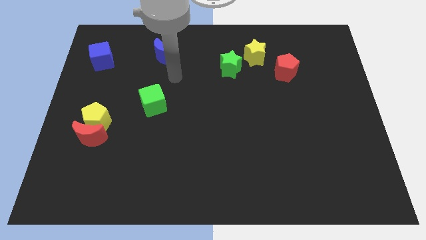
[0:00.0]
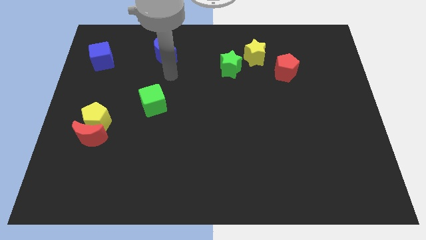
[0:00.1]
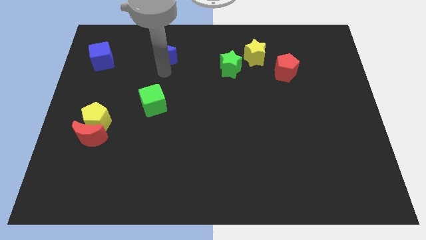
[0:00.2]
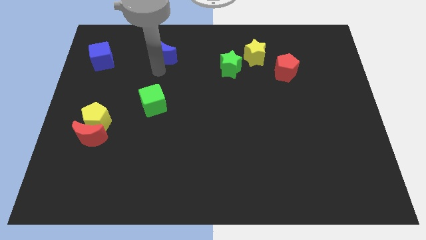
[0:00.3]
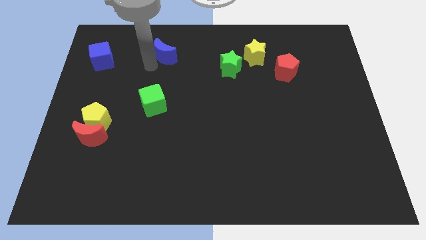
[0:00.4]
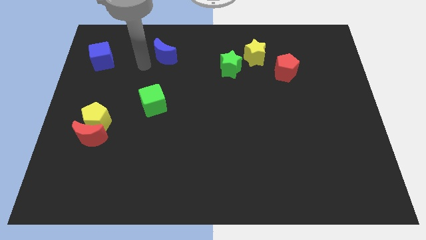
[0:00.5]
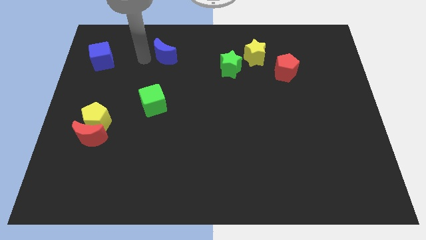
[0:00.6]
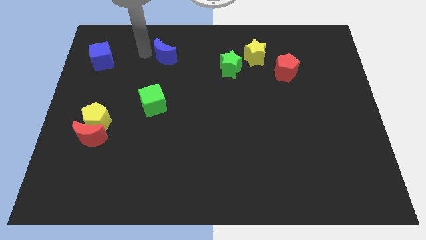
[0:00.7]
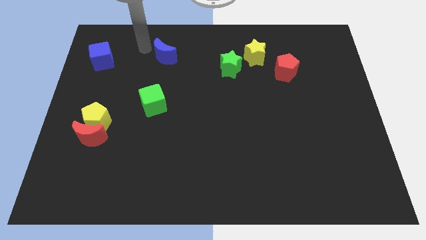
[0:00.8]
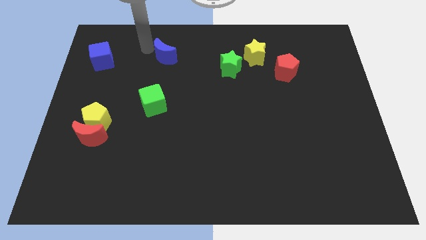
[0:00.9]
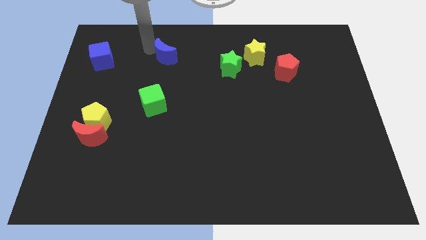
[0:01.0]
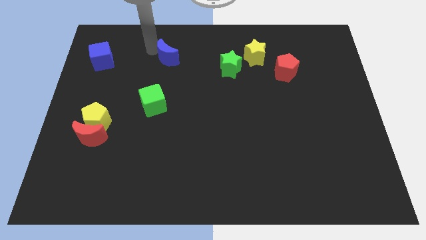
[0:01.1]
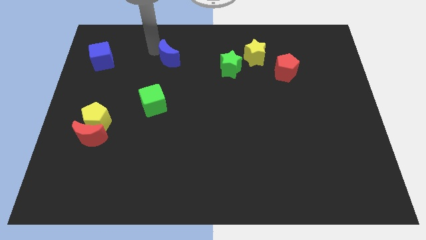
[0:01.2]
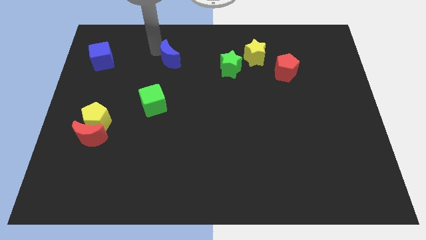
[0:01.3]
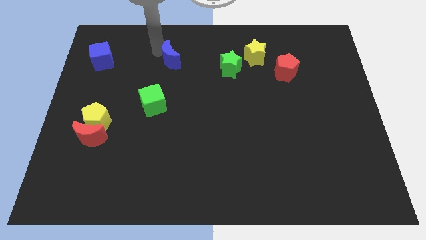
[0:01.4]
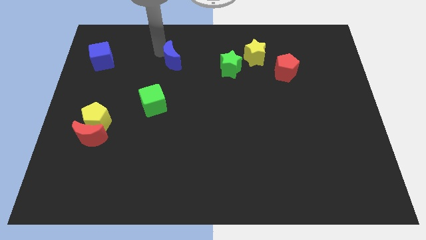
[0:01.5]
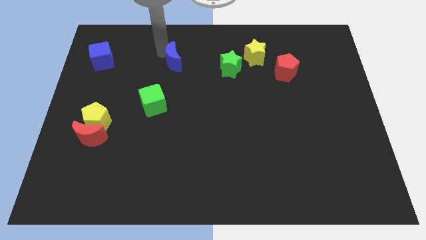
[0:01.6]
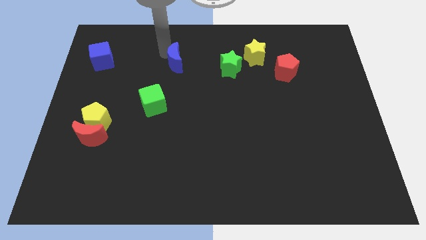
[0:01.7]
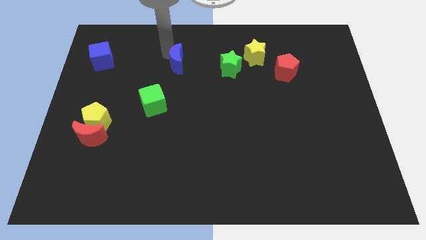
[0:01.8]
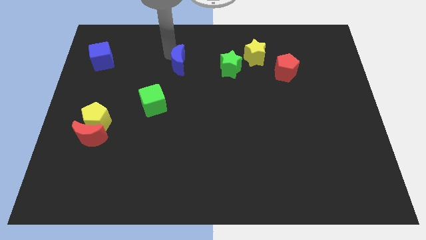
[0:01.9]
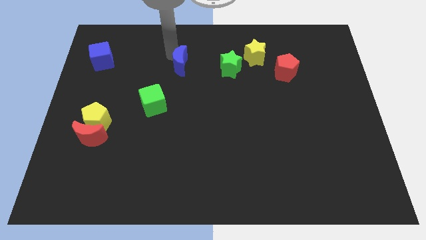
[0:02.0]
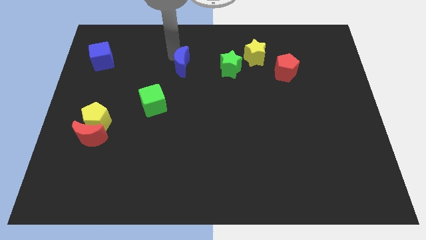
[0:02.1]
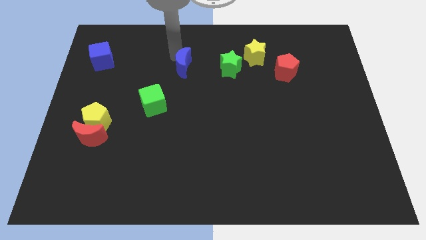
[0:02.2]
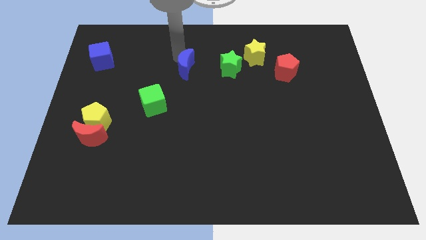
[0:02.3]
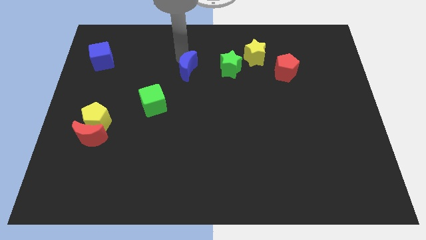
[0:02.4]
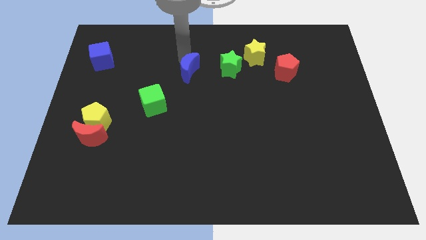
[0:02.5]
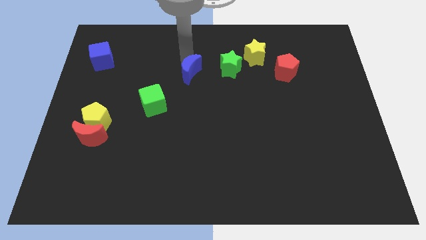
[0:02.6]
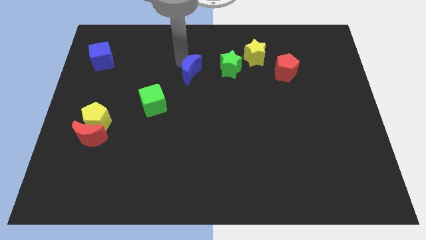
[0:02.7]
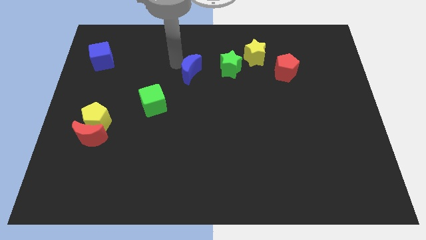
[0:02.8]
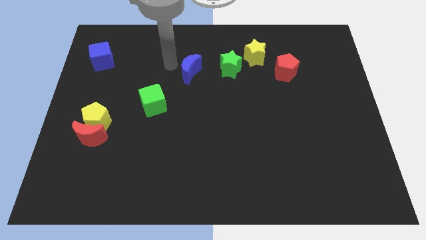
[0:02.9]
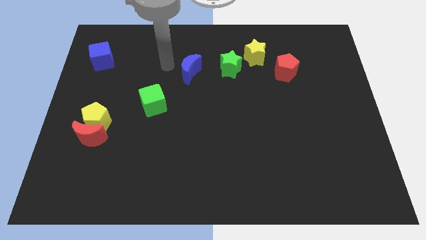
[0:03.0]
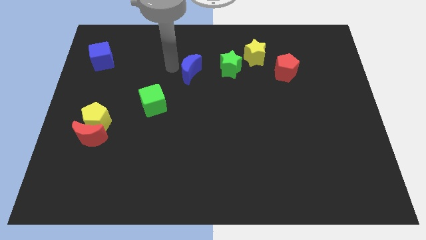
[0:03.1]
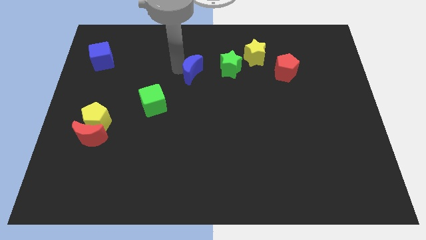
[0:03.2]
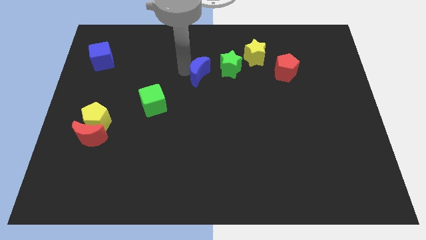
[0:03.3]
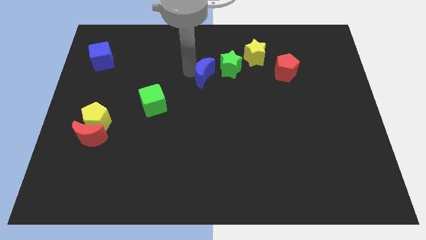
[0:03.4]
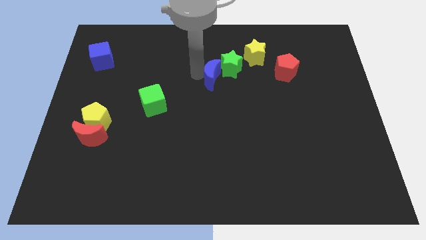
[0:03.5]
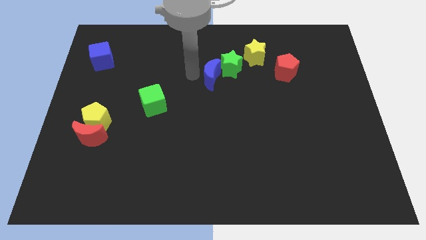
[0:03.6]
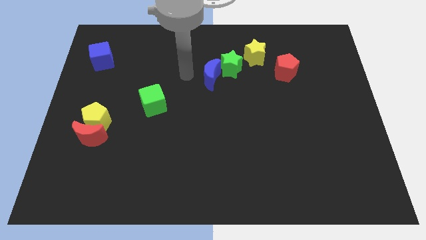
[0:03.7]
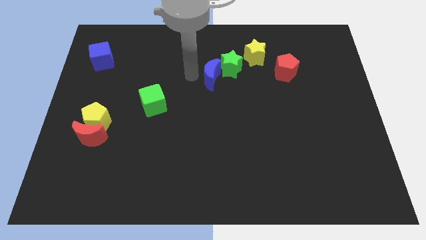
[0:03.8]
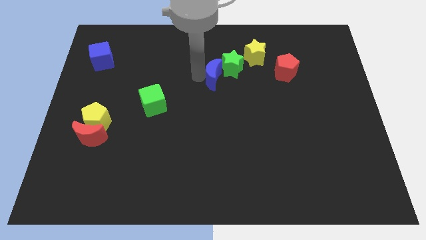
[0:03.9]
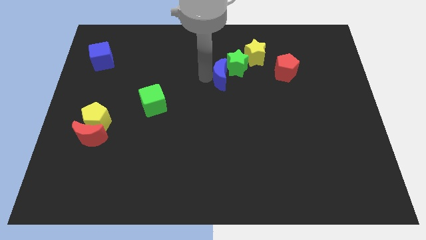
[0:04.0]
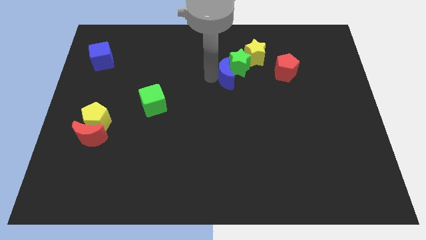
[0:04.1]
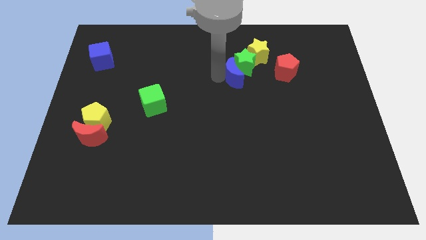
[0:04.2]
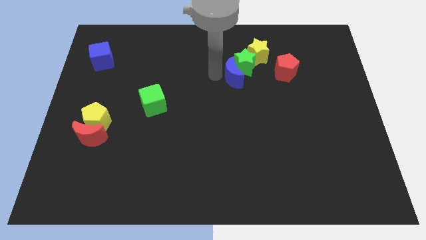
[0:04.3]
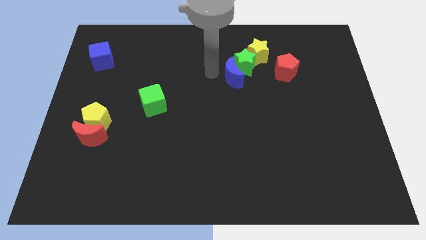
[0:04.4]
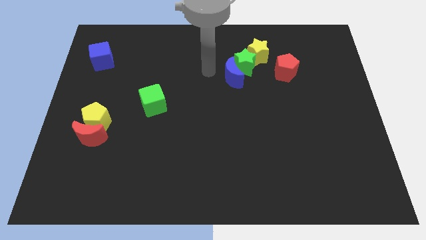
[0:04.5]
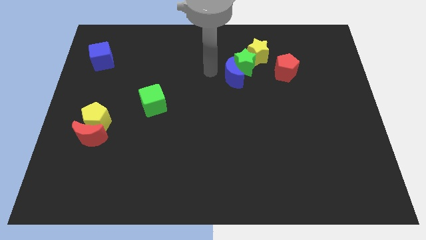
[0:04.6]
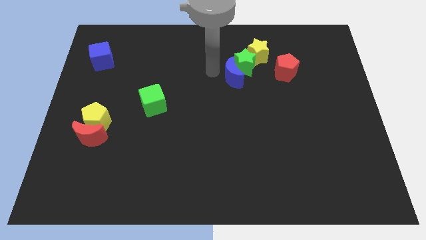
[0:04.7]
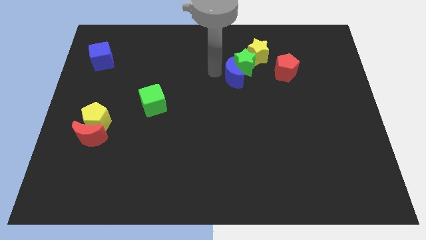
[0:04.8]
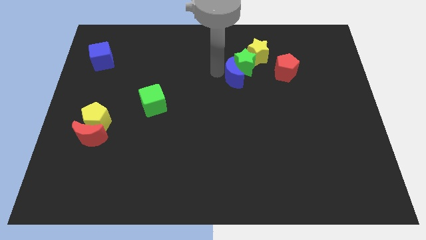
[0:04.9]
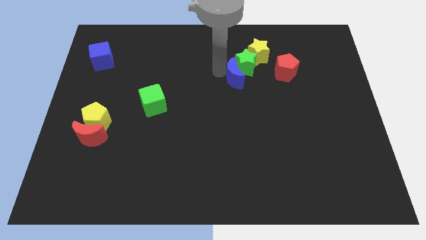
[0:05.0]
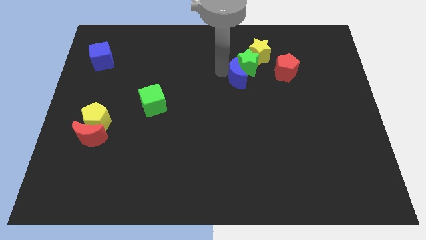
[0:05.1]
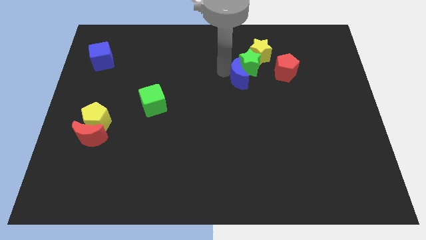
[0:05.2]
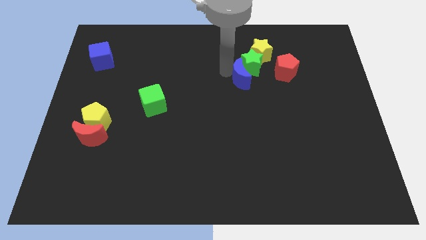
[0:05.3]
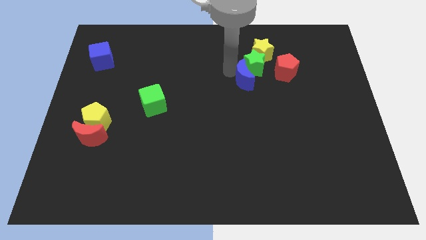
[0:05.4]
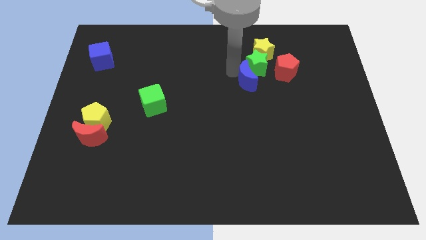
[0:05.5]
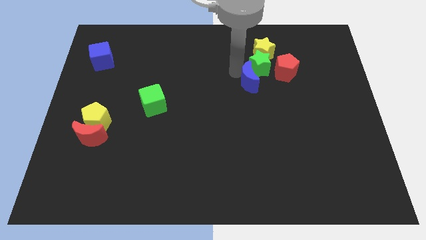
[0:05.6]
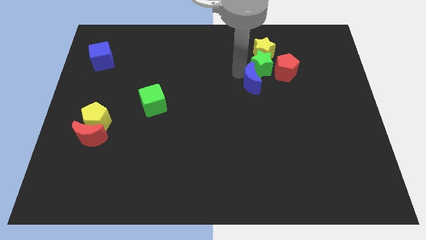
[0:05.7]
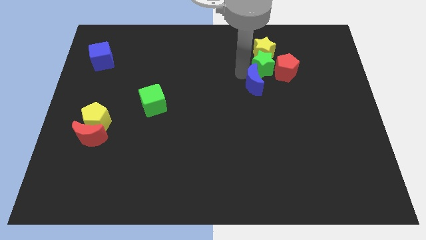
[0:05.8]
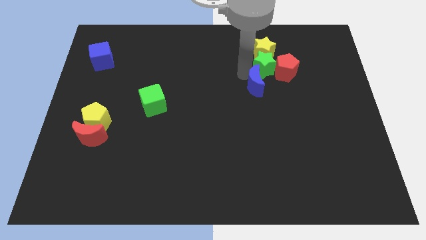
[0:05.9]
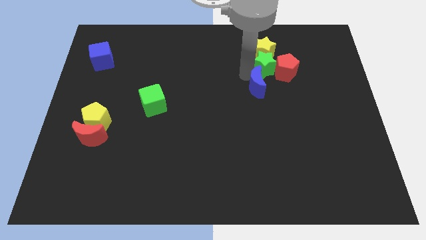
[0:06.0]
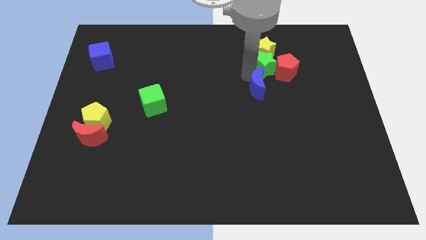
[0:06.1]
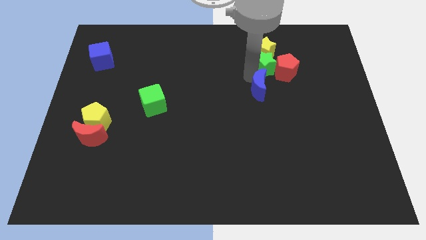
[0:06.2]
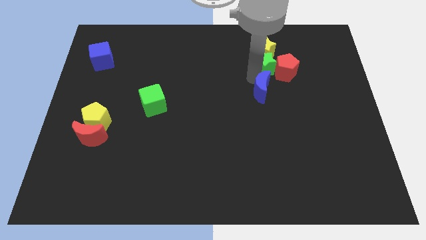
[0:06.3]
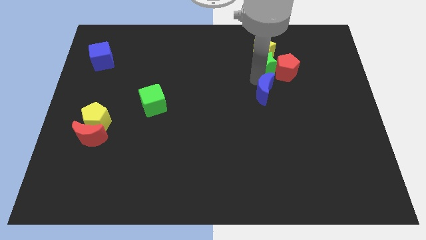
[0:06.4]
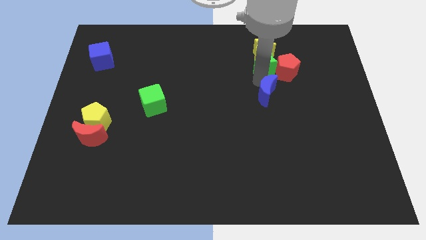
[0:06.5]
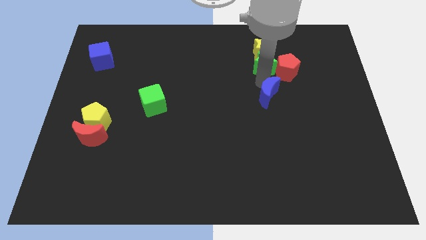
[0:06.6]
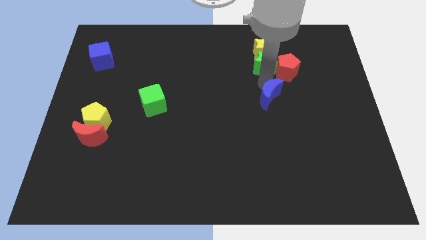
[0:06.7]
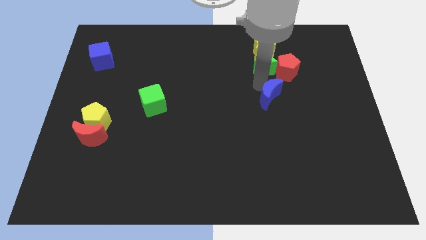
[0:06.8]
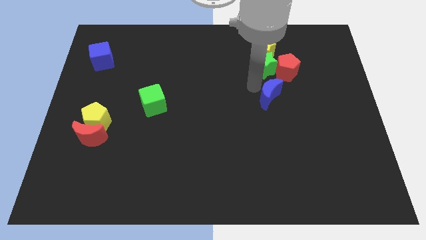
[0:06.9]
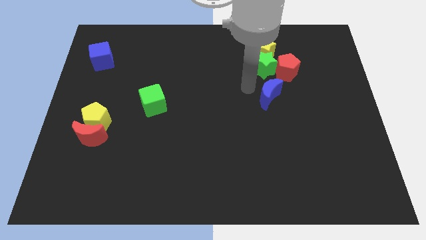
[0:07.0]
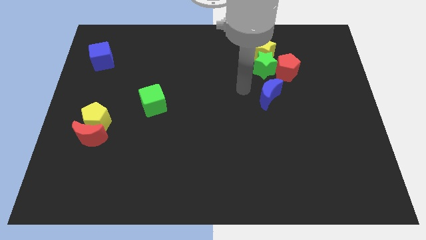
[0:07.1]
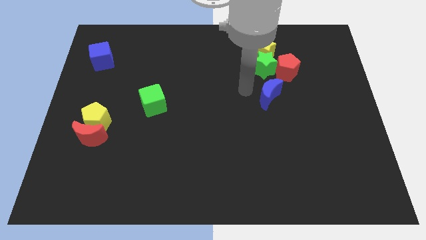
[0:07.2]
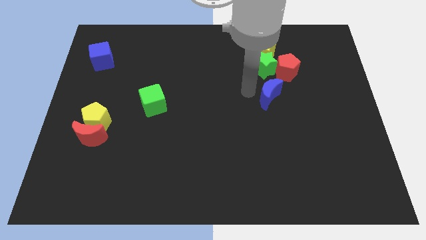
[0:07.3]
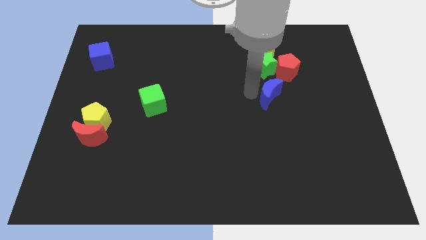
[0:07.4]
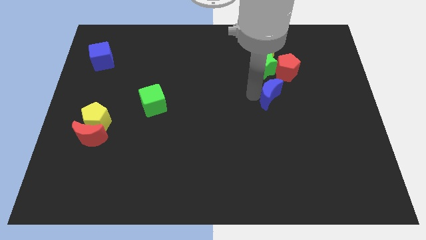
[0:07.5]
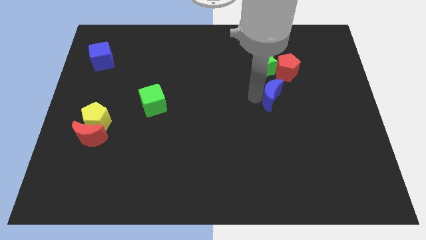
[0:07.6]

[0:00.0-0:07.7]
put the blue moon below the red pentagon

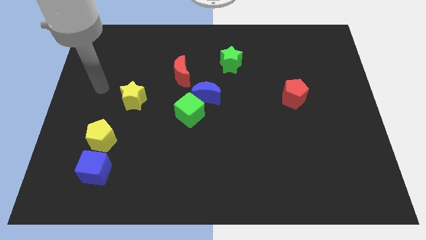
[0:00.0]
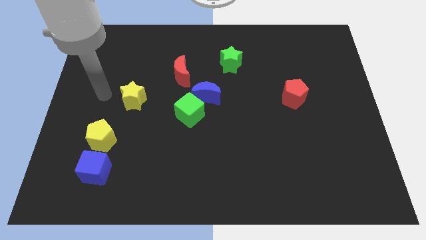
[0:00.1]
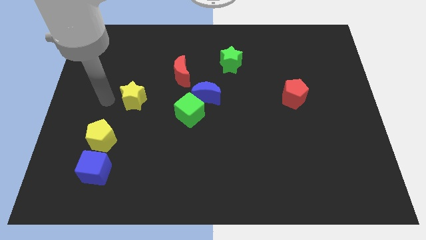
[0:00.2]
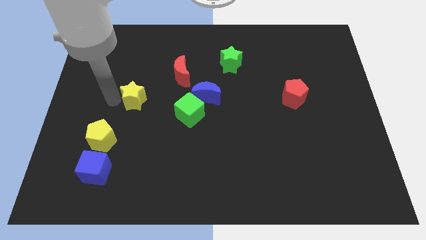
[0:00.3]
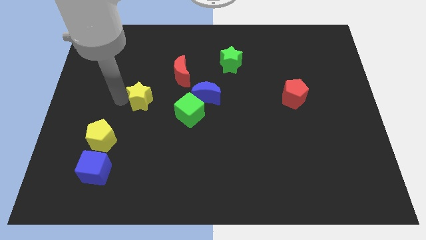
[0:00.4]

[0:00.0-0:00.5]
put the yellow star to the left side of the blue moon
